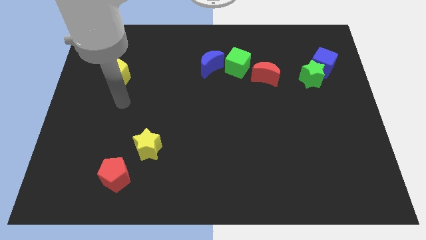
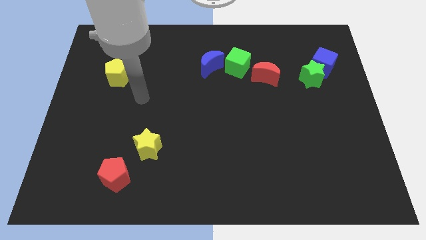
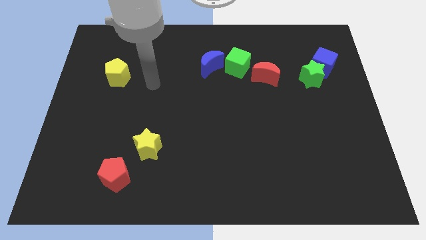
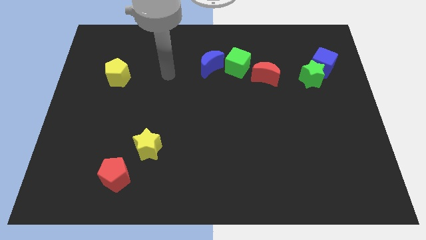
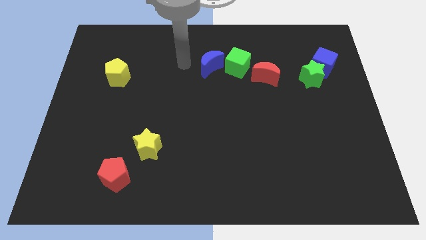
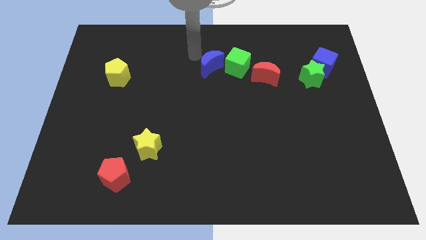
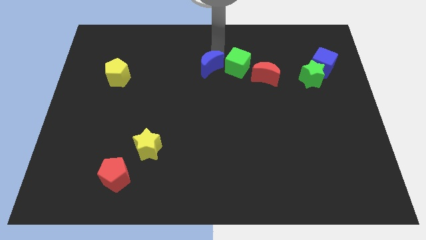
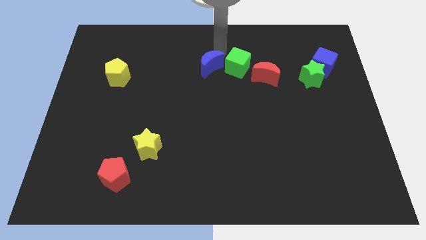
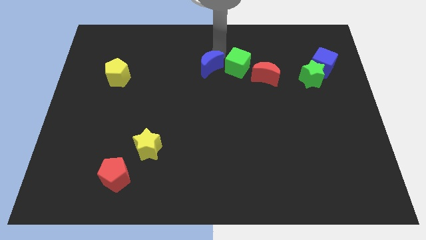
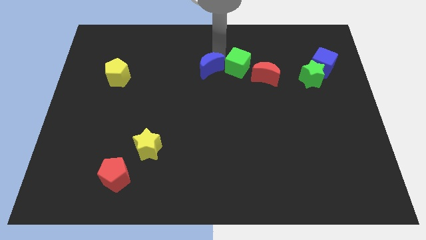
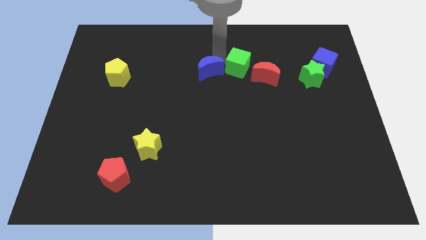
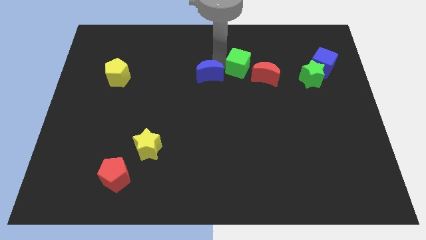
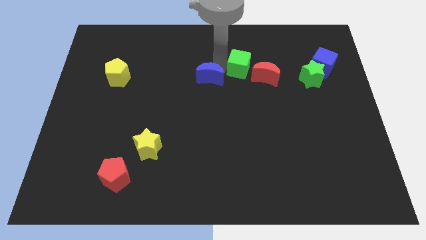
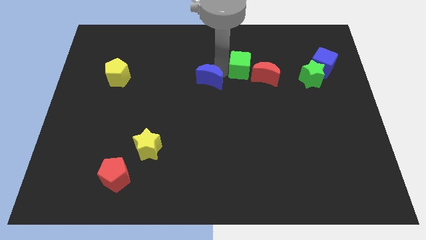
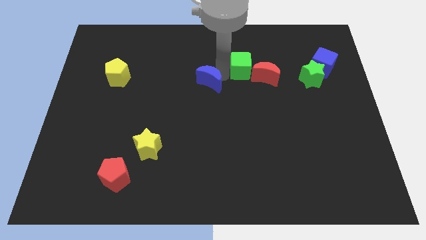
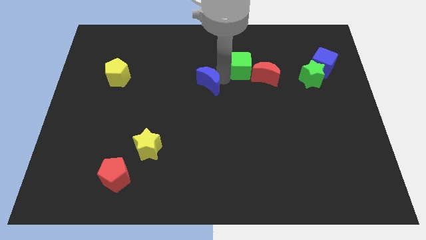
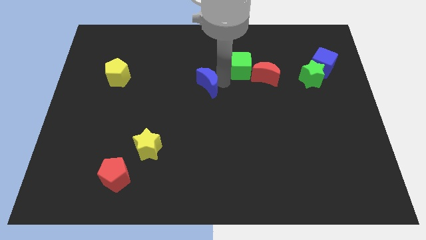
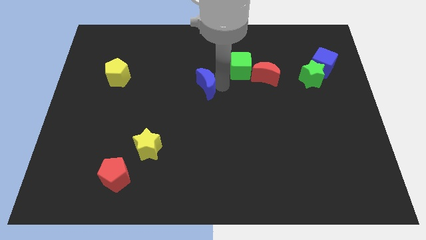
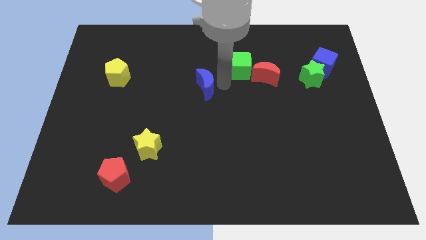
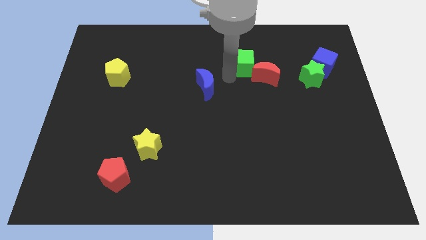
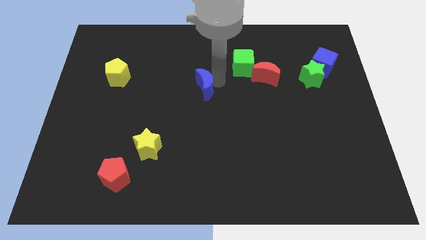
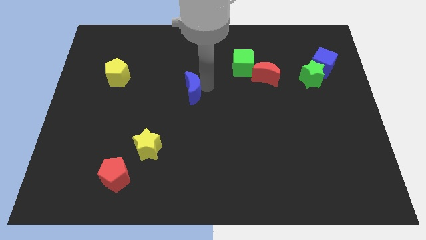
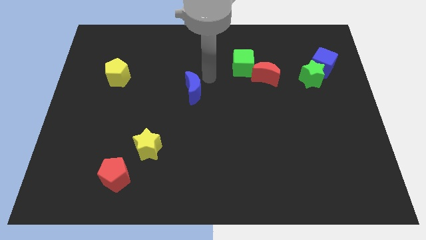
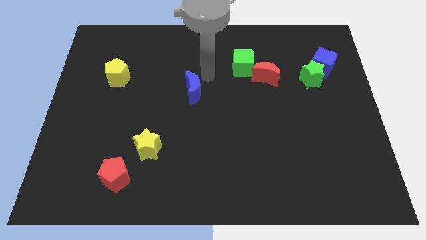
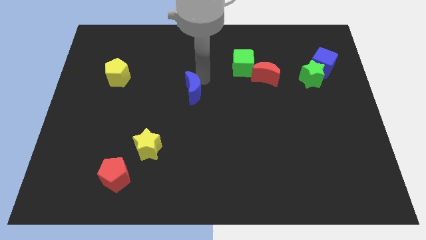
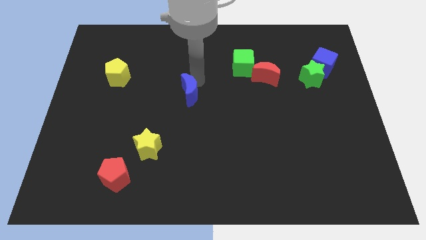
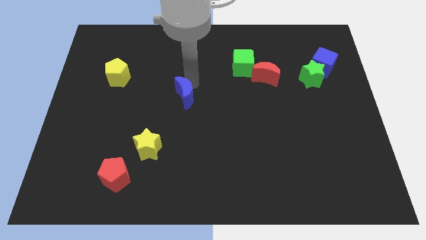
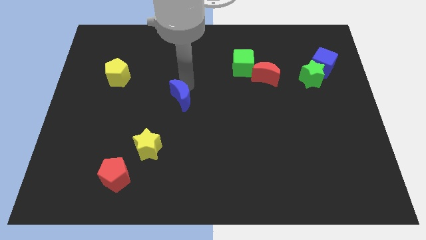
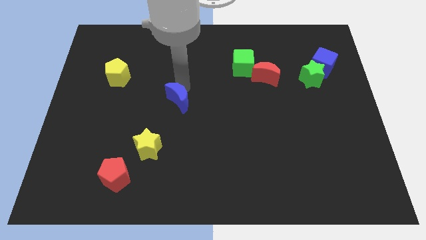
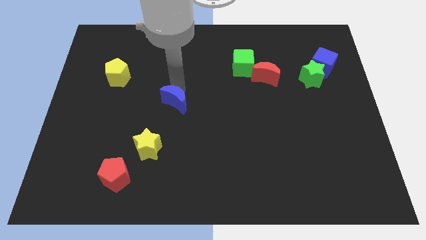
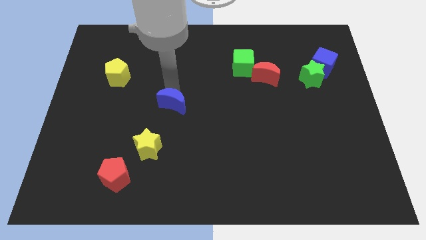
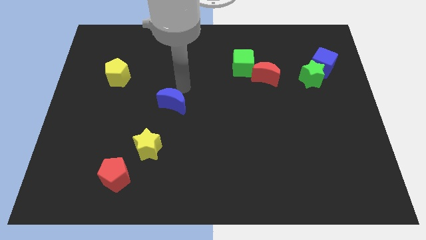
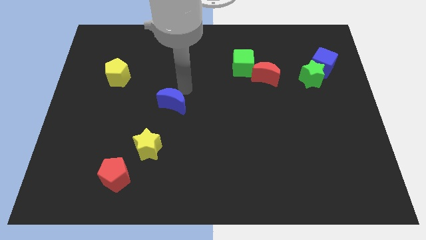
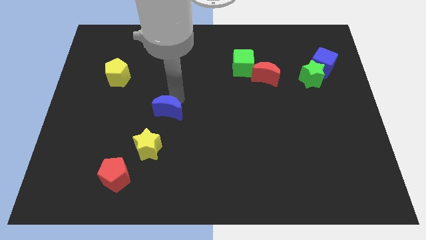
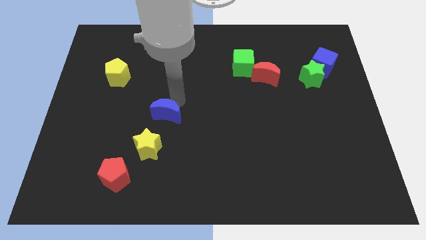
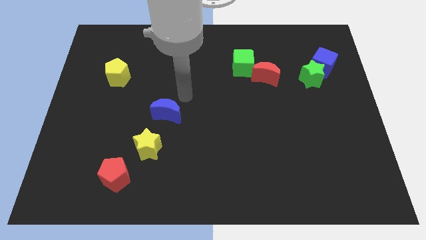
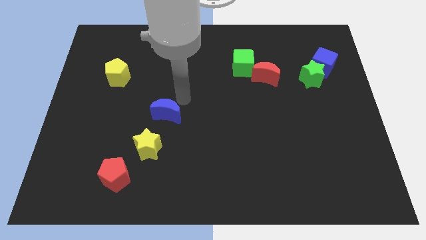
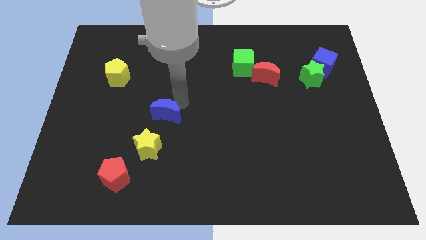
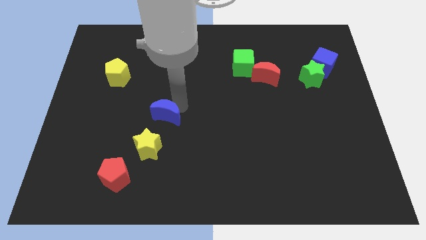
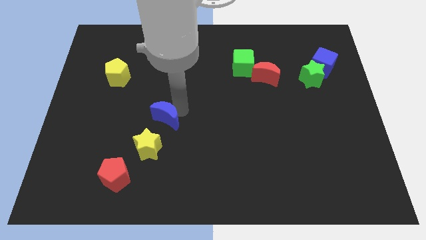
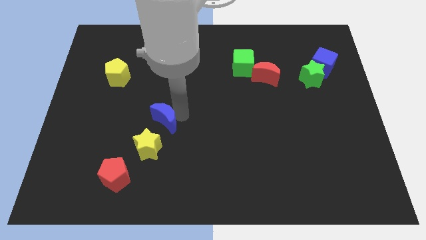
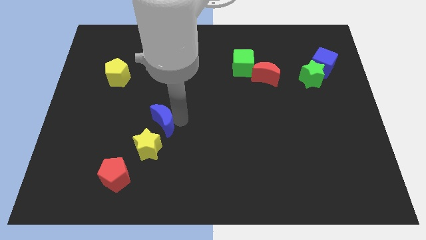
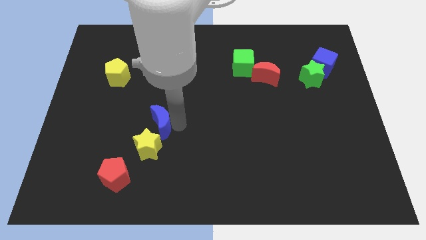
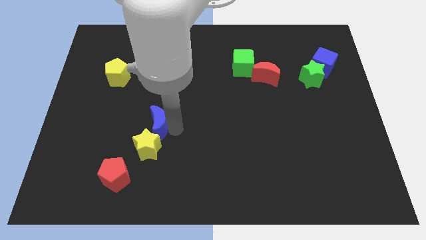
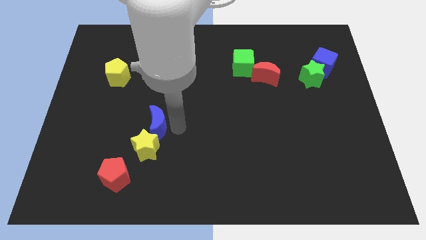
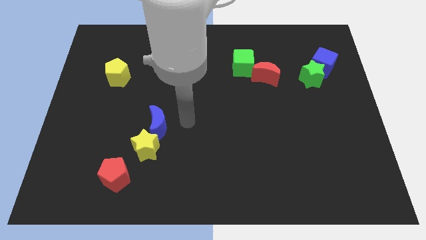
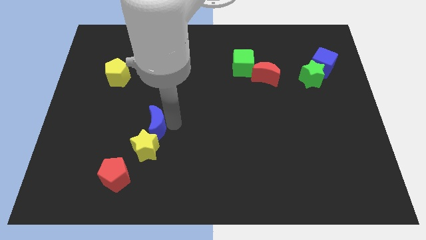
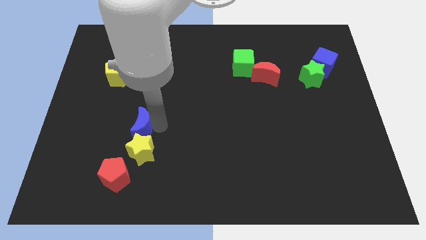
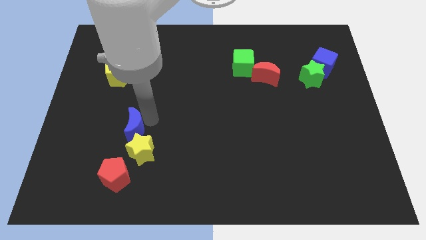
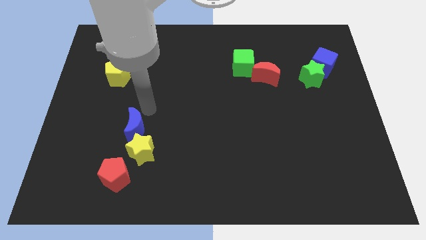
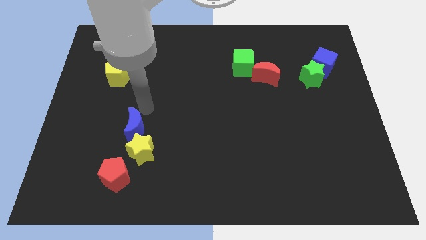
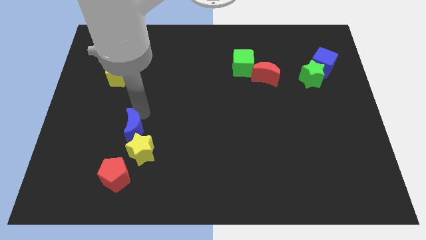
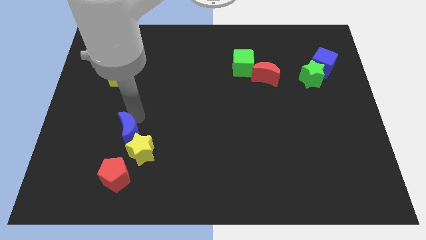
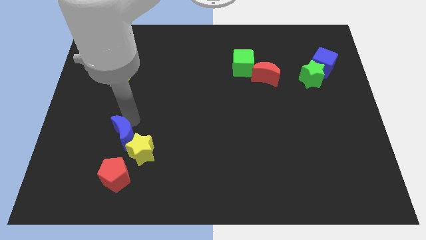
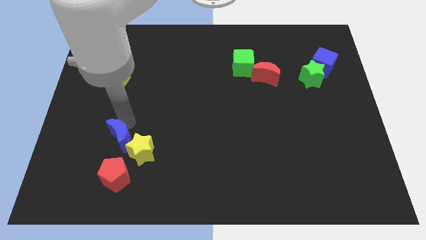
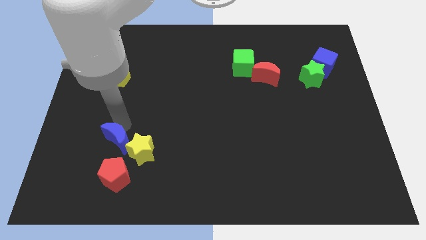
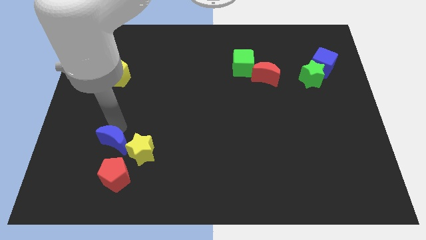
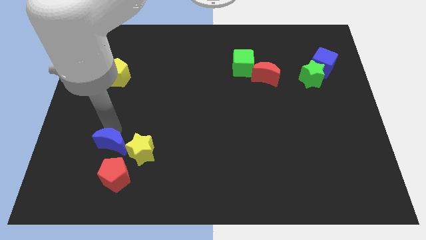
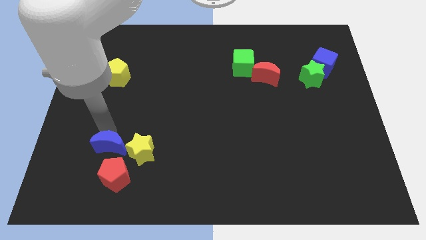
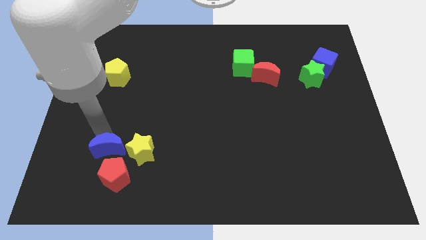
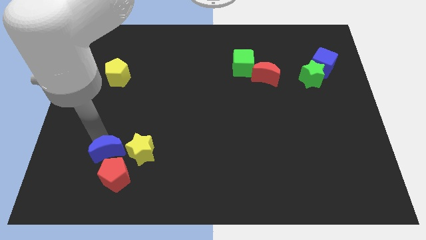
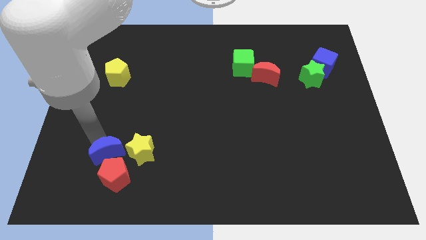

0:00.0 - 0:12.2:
put the blue moon next to the red pentagon

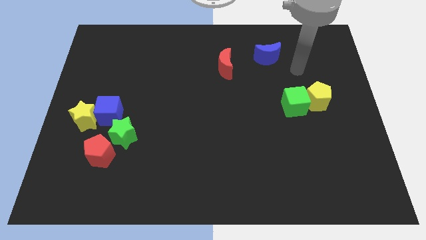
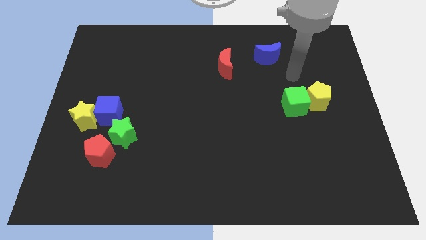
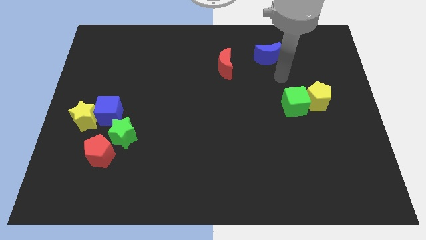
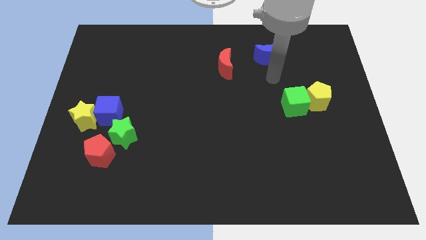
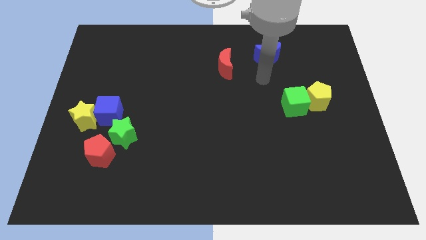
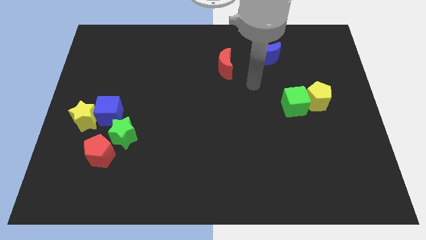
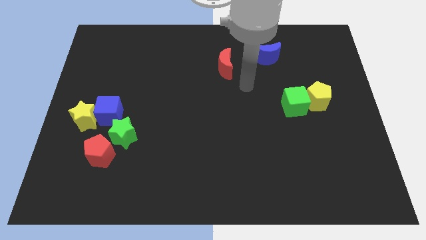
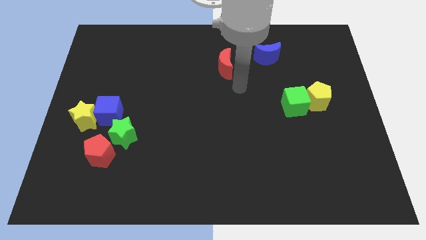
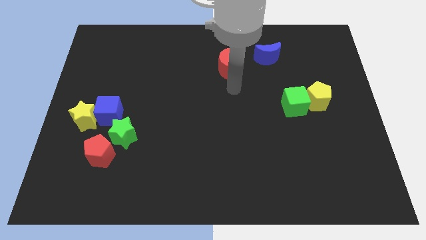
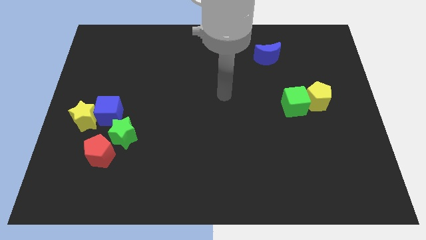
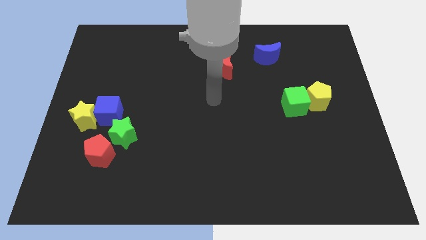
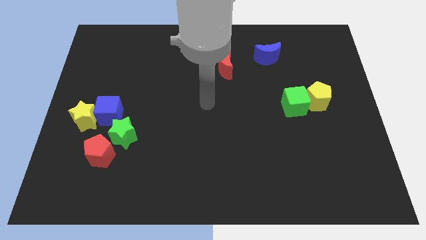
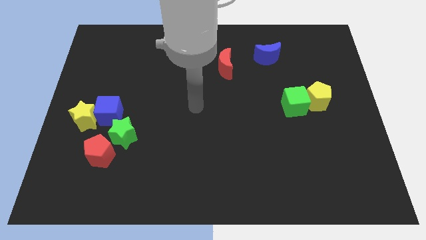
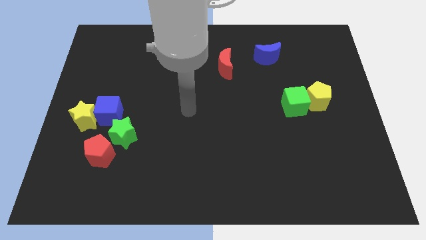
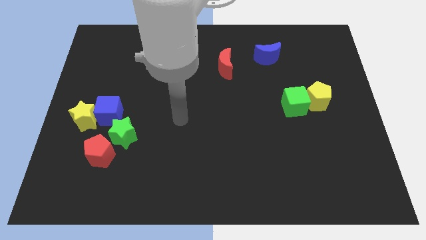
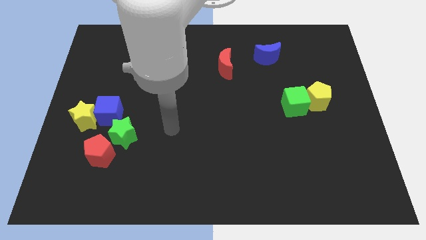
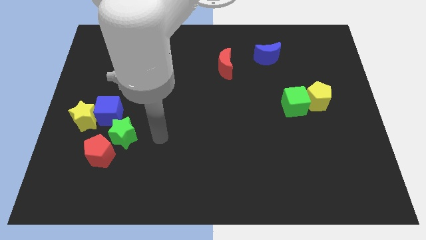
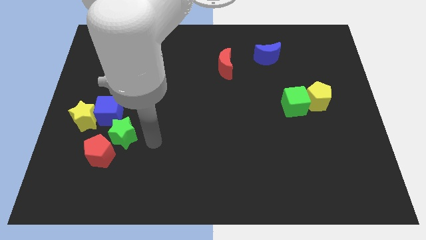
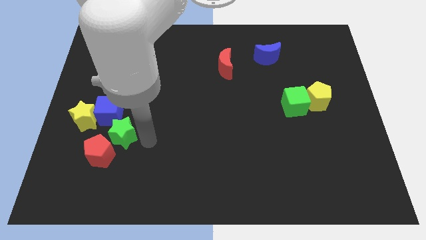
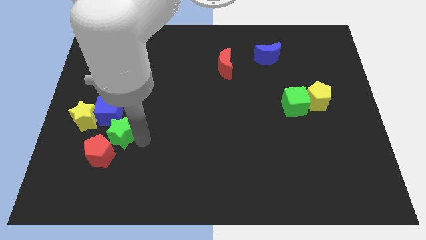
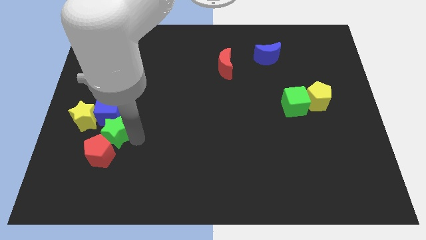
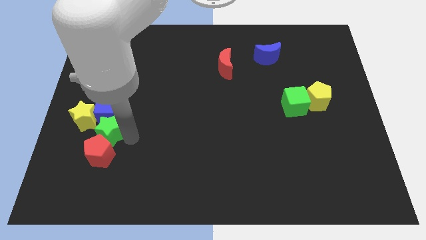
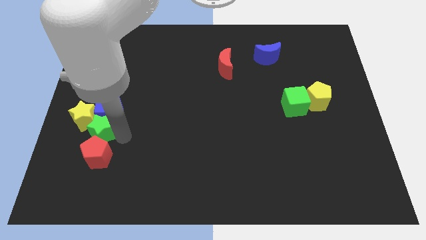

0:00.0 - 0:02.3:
push the green star to the yellow star
